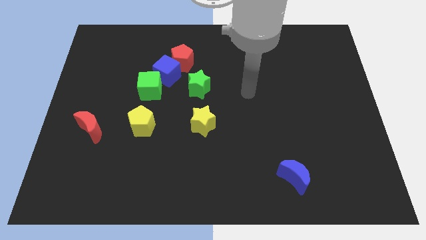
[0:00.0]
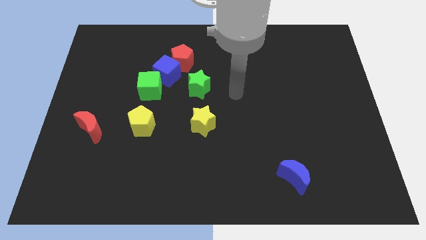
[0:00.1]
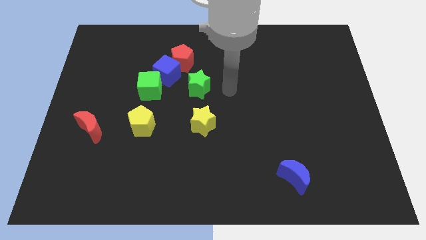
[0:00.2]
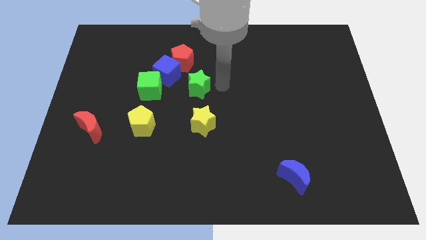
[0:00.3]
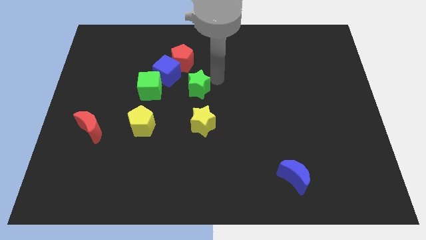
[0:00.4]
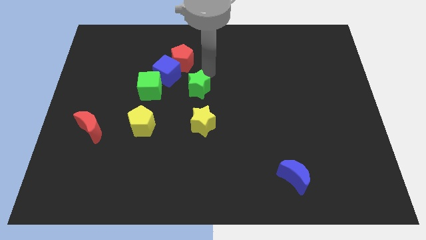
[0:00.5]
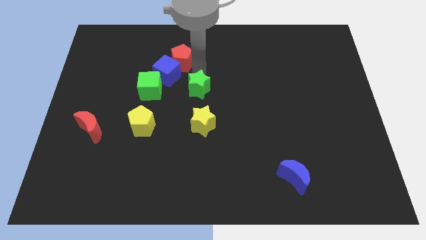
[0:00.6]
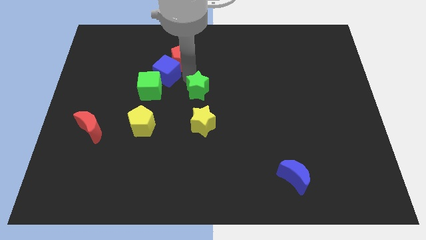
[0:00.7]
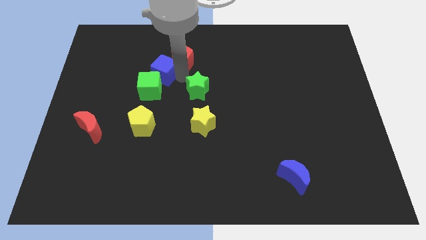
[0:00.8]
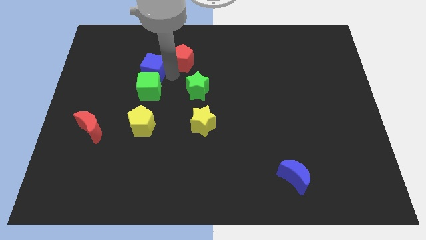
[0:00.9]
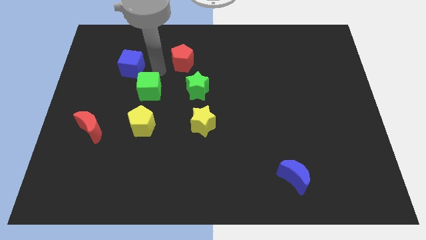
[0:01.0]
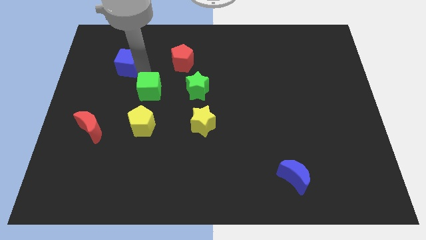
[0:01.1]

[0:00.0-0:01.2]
move the green cube away from the blue cube

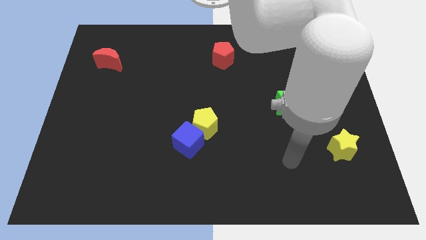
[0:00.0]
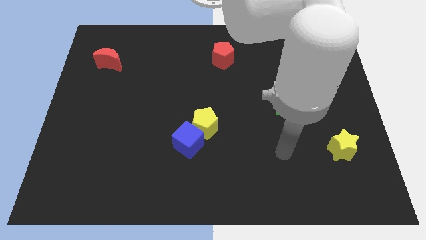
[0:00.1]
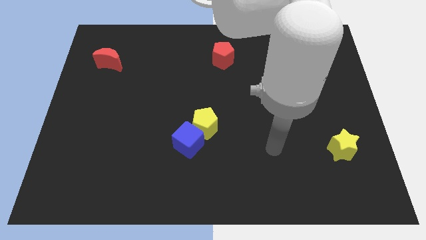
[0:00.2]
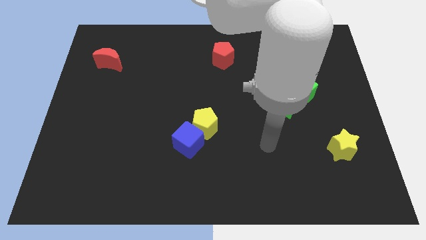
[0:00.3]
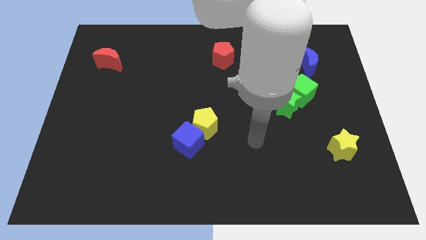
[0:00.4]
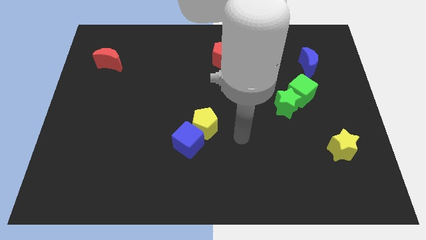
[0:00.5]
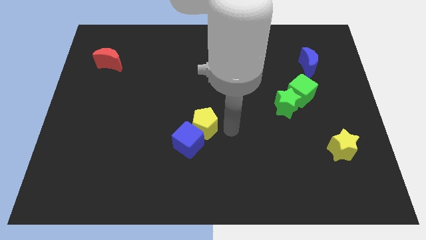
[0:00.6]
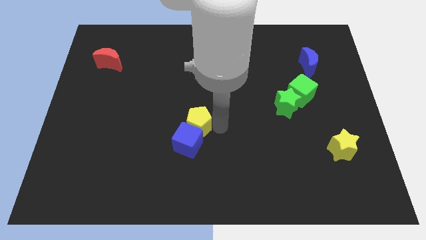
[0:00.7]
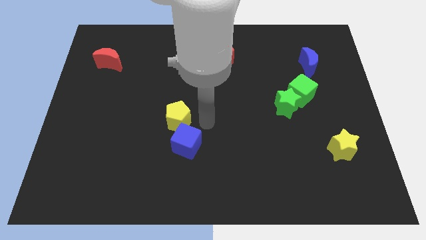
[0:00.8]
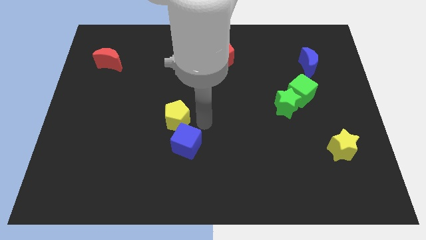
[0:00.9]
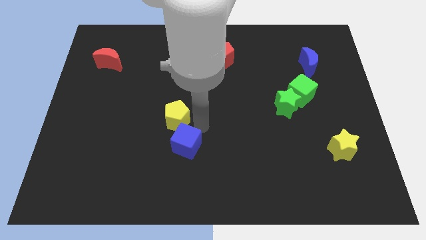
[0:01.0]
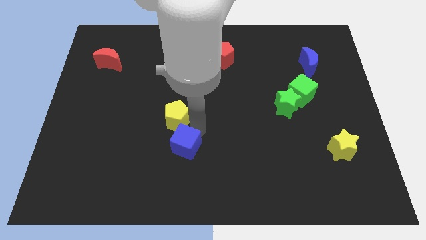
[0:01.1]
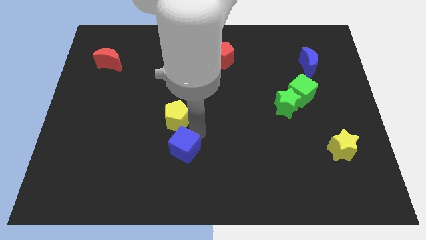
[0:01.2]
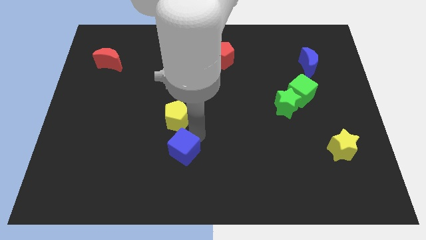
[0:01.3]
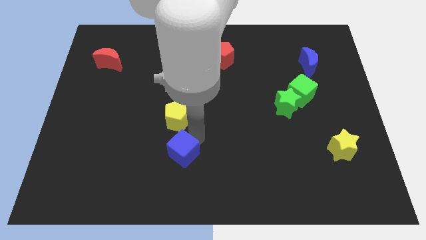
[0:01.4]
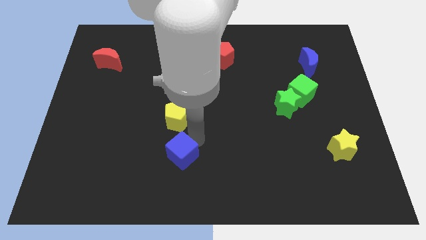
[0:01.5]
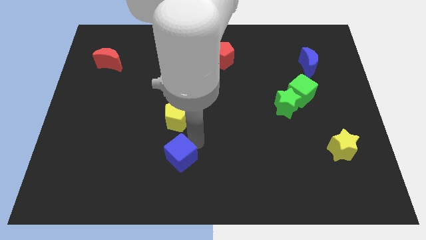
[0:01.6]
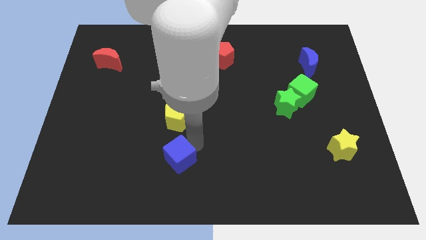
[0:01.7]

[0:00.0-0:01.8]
separate the blue cube from the yellow pentagon

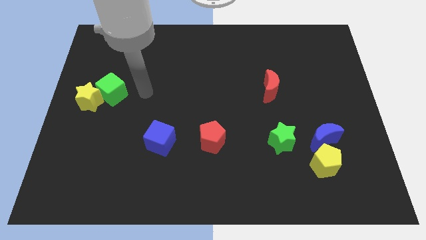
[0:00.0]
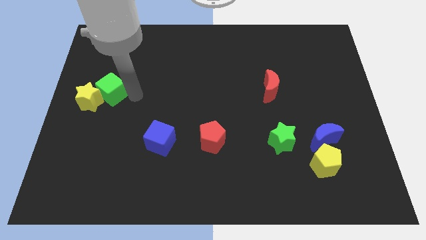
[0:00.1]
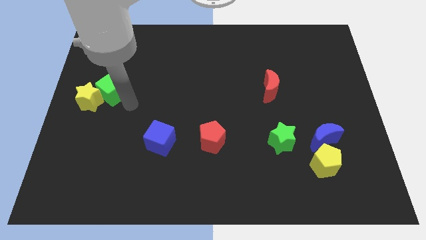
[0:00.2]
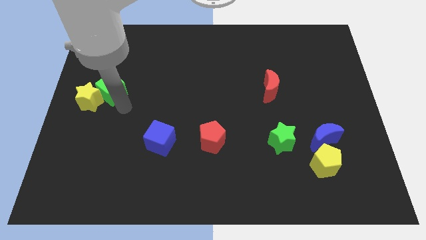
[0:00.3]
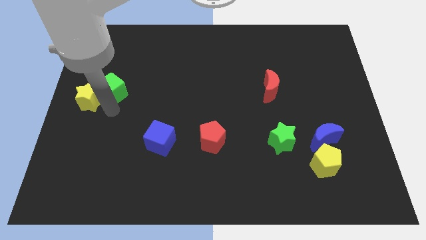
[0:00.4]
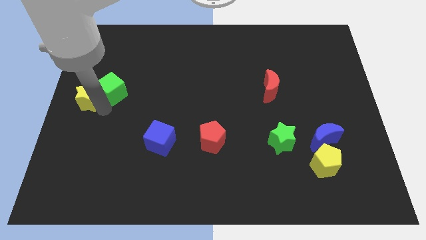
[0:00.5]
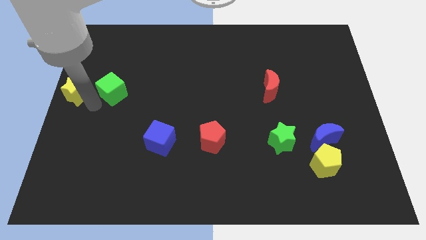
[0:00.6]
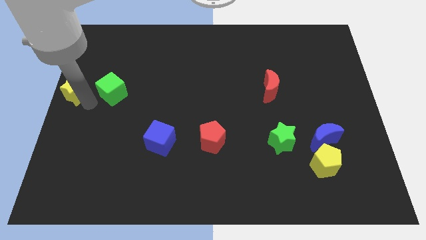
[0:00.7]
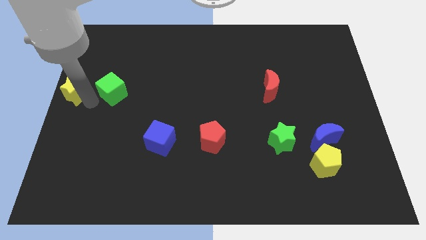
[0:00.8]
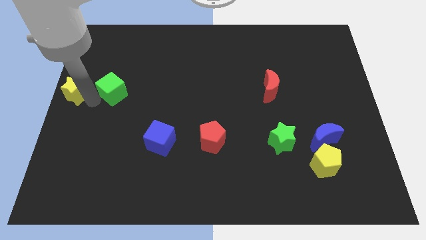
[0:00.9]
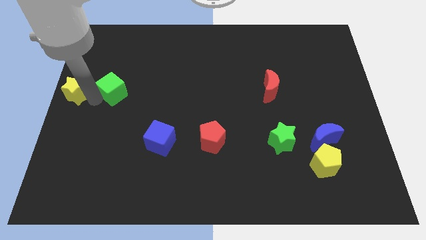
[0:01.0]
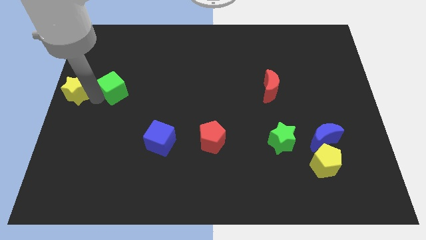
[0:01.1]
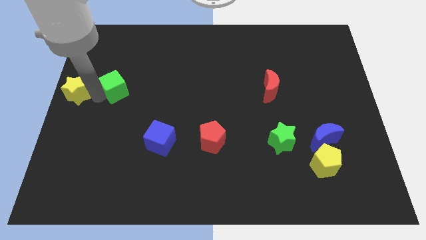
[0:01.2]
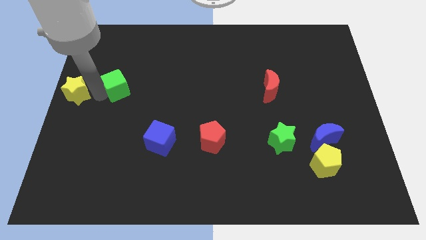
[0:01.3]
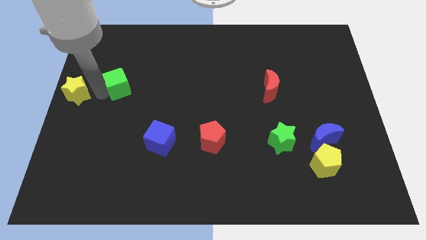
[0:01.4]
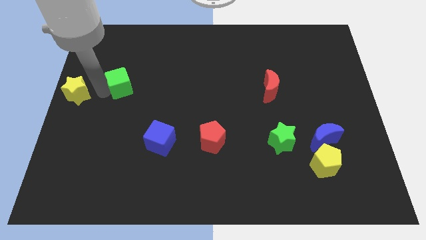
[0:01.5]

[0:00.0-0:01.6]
separate the green cube from the yellow star

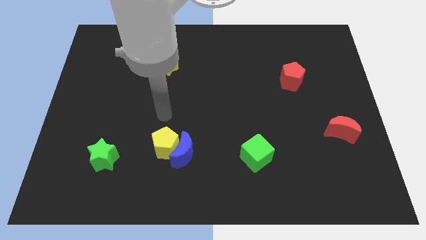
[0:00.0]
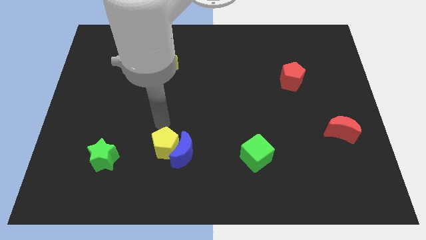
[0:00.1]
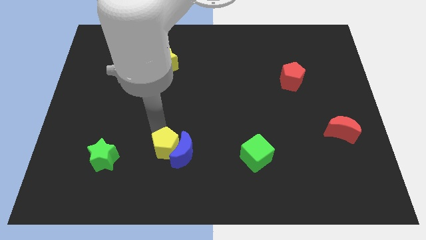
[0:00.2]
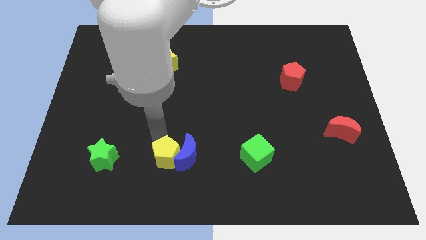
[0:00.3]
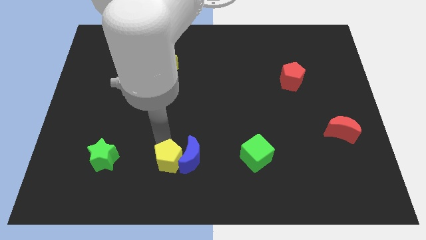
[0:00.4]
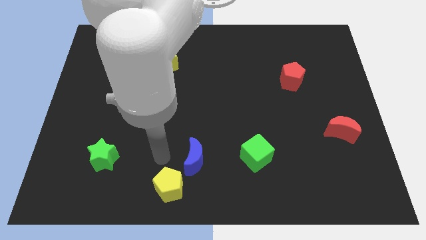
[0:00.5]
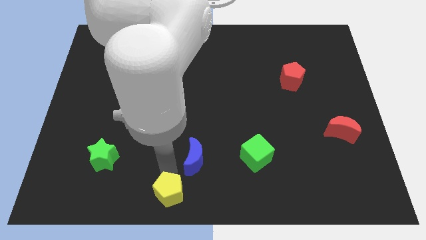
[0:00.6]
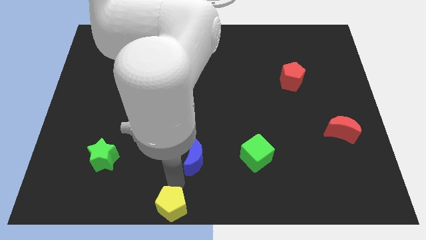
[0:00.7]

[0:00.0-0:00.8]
move the blue moon away from the yellow pentagon

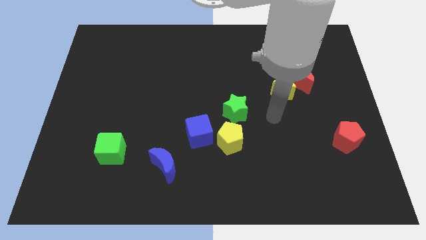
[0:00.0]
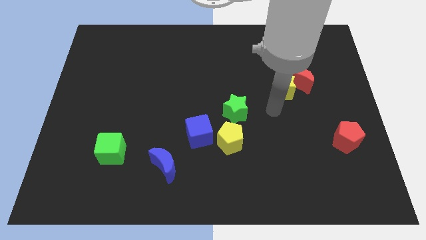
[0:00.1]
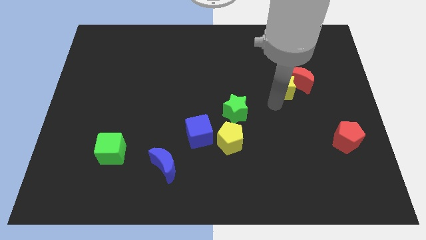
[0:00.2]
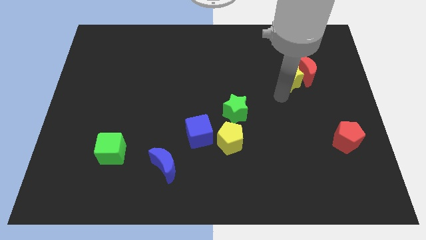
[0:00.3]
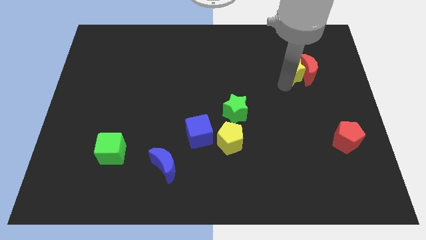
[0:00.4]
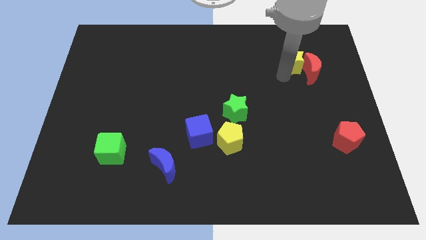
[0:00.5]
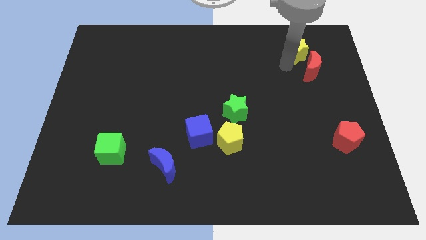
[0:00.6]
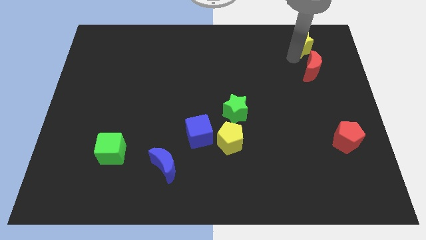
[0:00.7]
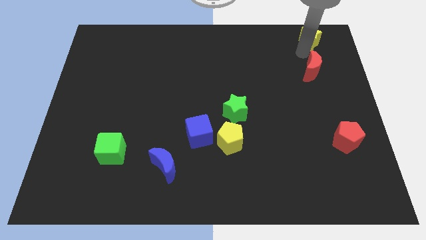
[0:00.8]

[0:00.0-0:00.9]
move the red moon away from the yellow star

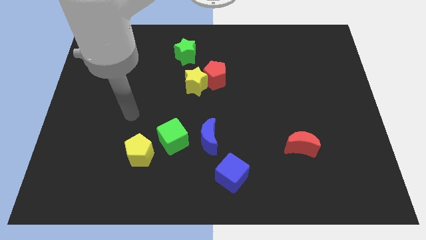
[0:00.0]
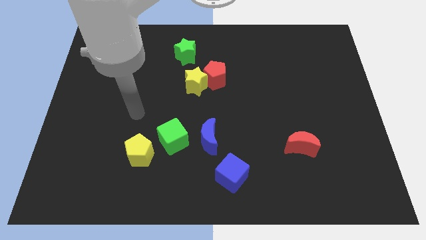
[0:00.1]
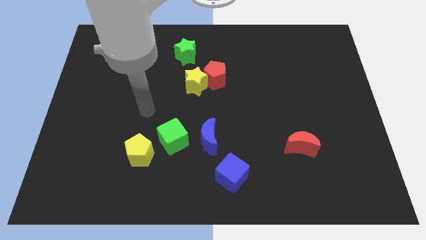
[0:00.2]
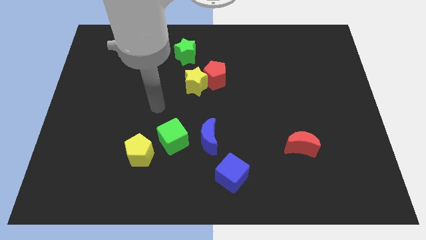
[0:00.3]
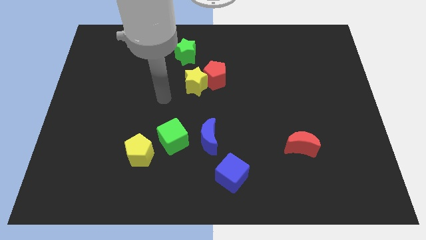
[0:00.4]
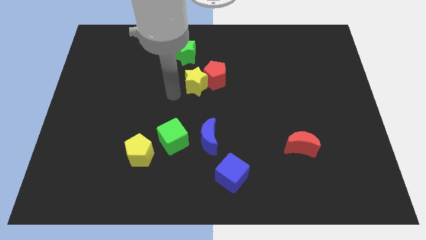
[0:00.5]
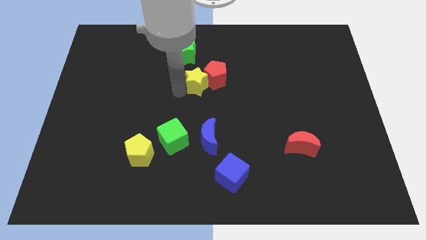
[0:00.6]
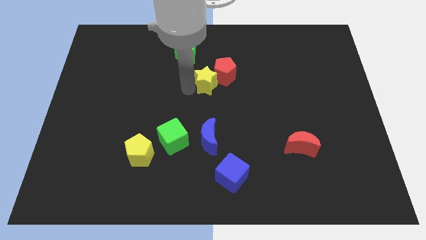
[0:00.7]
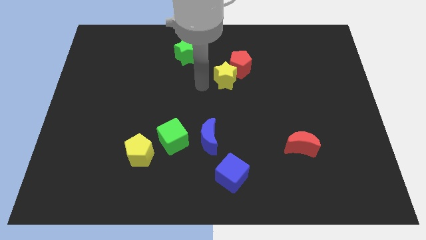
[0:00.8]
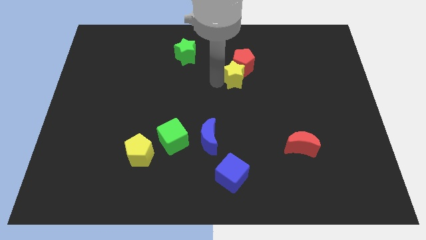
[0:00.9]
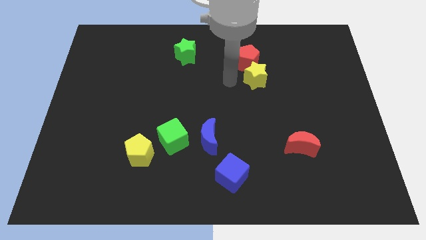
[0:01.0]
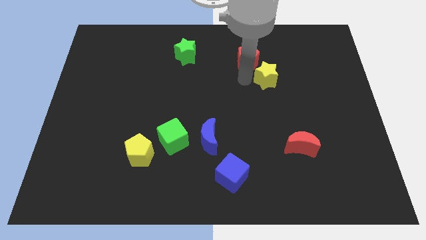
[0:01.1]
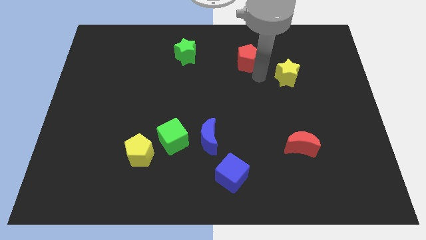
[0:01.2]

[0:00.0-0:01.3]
separate the red pentagon from the yellow star

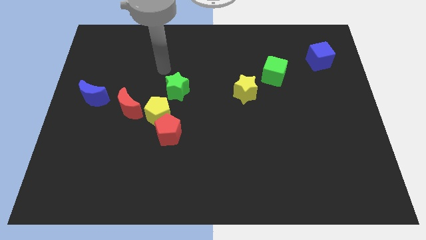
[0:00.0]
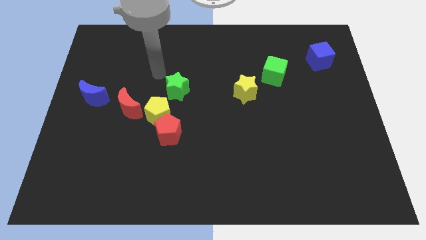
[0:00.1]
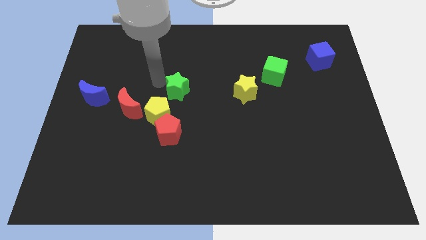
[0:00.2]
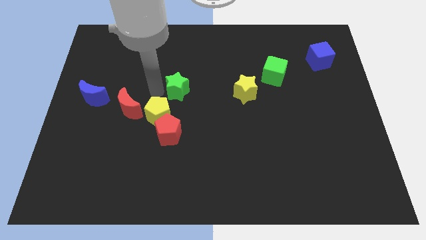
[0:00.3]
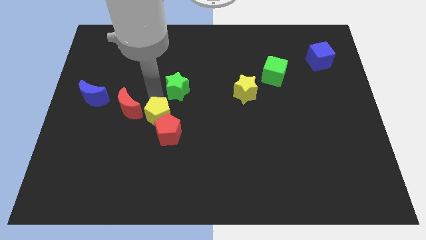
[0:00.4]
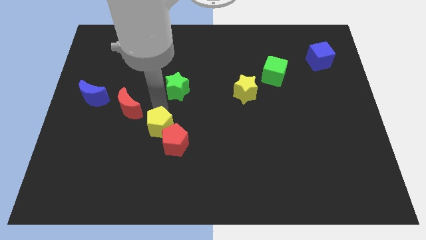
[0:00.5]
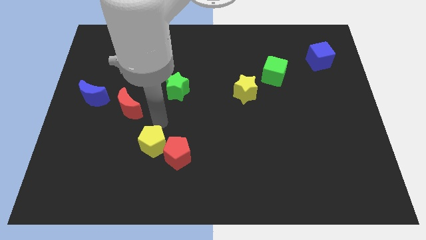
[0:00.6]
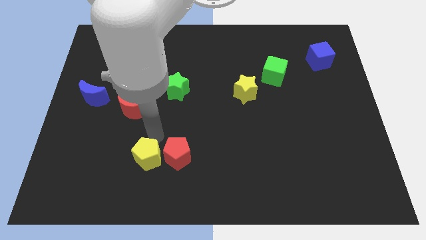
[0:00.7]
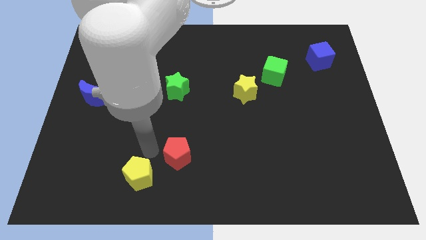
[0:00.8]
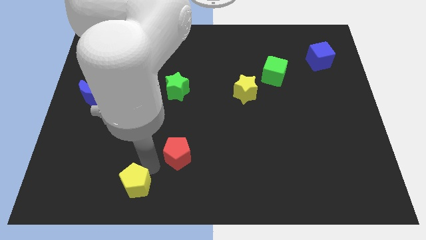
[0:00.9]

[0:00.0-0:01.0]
pull the red pentagon apart from the yellow pentagon

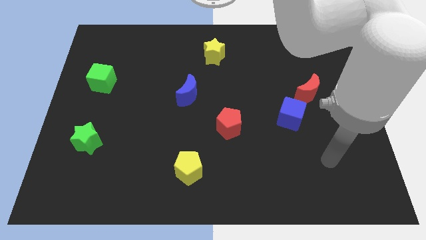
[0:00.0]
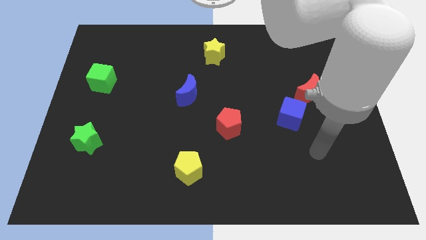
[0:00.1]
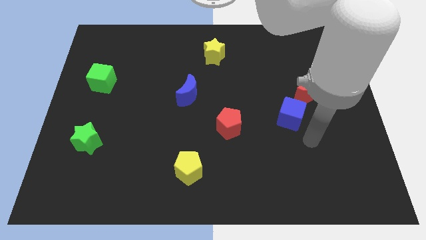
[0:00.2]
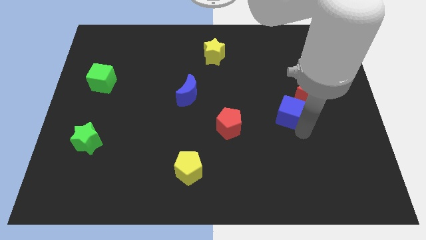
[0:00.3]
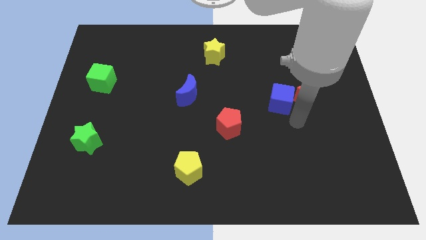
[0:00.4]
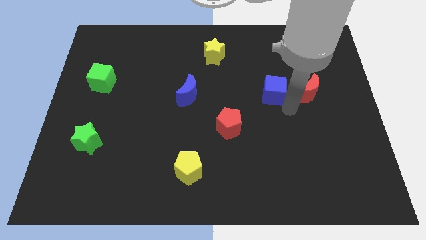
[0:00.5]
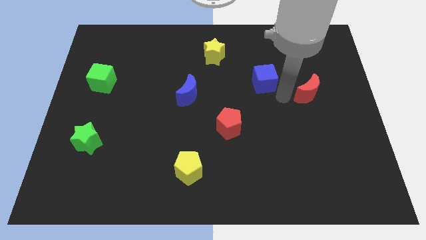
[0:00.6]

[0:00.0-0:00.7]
move the red moon away from the blue cube
